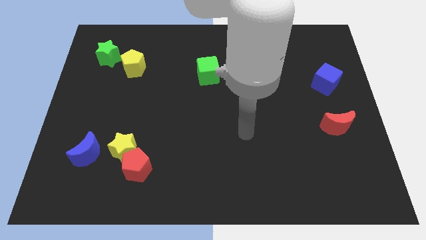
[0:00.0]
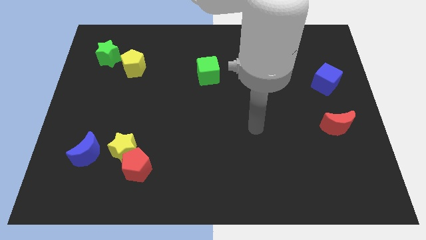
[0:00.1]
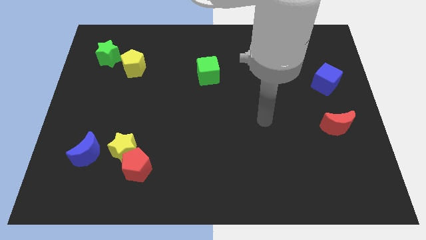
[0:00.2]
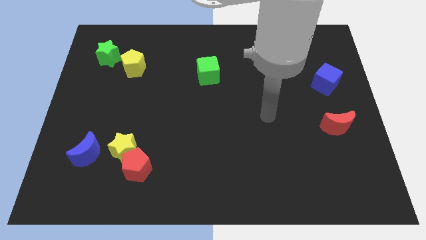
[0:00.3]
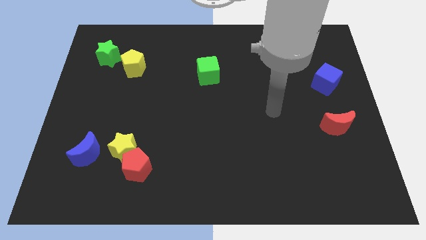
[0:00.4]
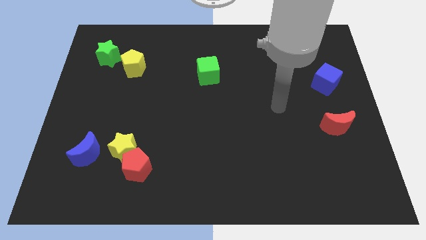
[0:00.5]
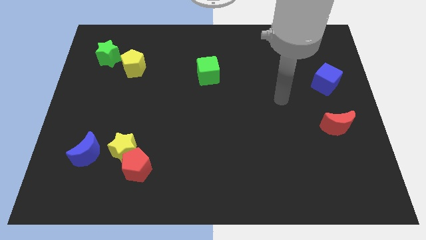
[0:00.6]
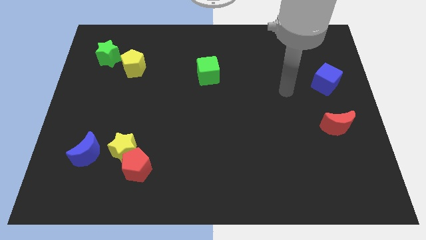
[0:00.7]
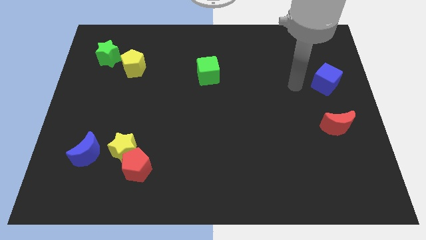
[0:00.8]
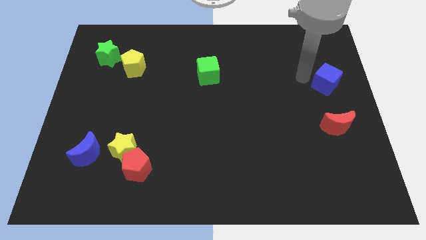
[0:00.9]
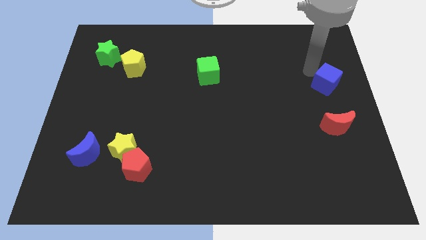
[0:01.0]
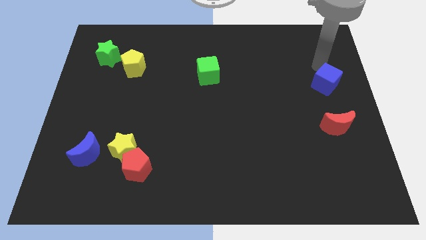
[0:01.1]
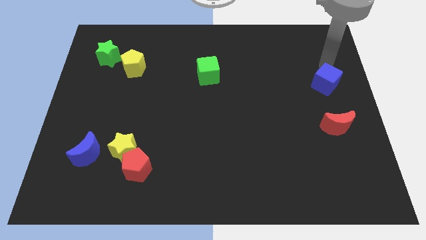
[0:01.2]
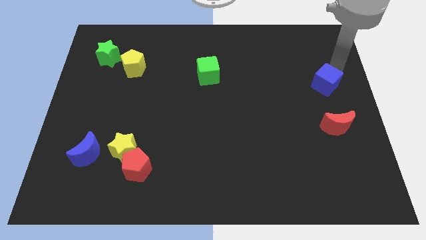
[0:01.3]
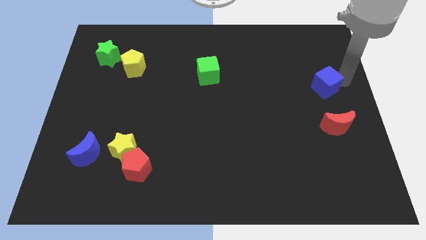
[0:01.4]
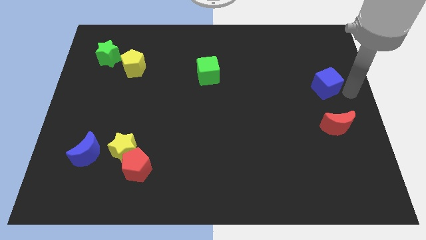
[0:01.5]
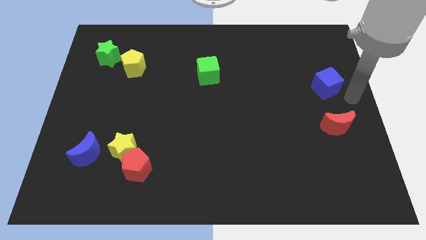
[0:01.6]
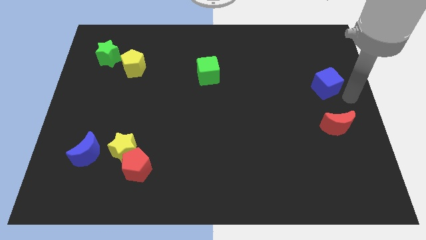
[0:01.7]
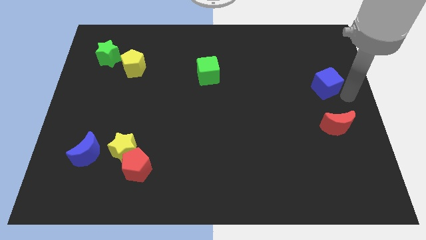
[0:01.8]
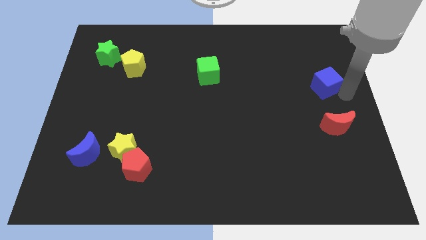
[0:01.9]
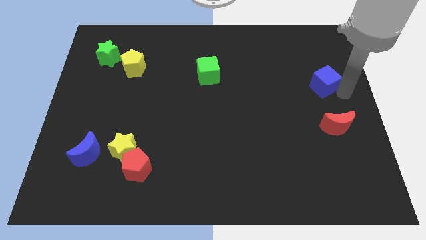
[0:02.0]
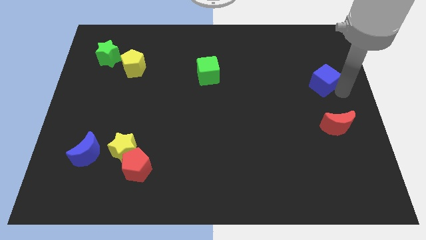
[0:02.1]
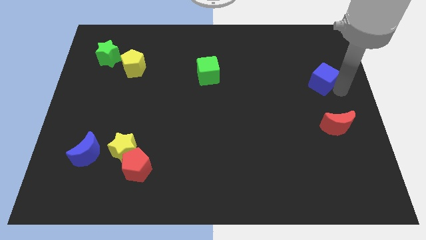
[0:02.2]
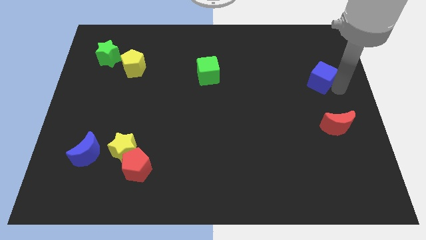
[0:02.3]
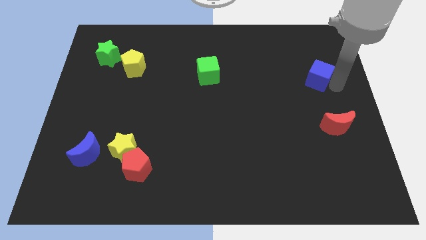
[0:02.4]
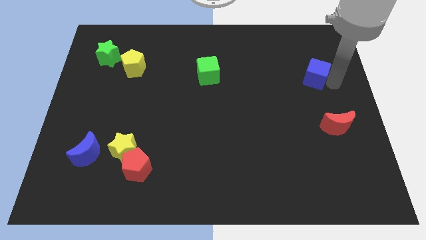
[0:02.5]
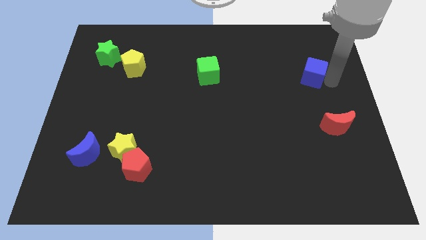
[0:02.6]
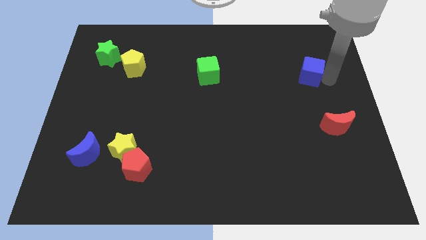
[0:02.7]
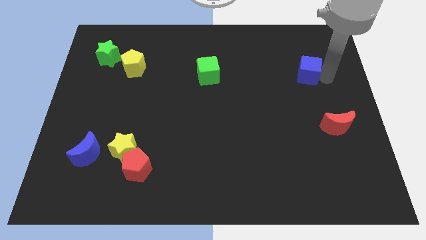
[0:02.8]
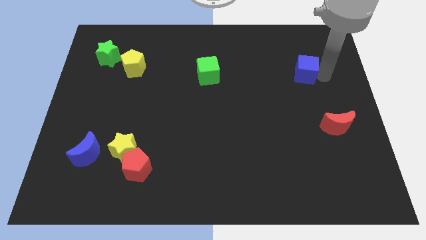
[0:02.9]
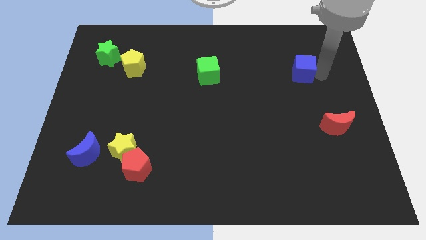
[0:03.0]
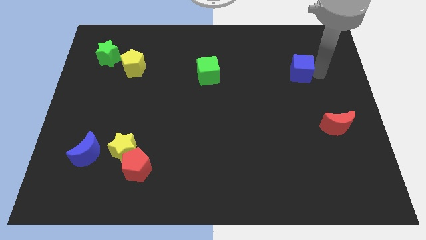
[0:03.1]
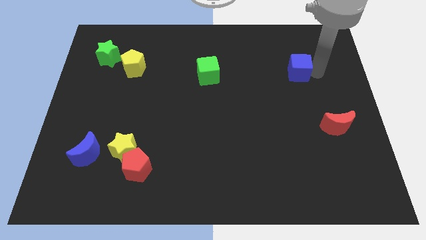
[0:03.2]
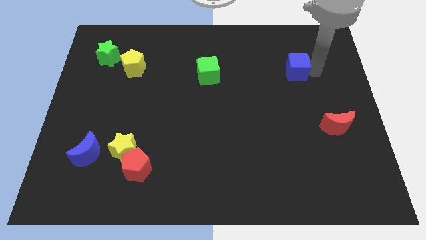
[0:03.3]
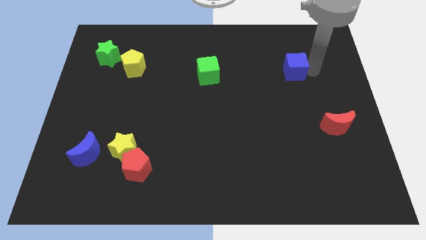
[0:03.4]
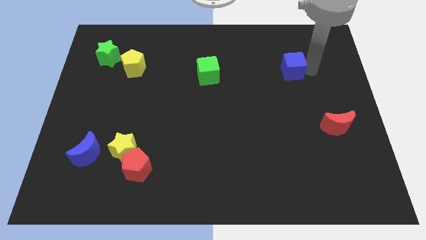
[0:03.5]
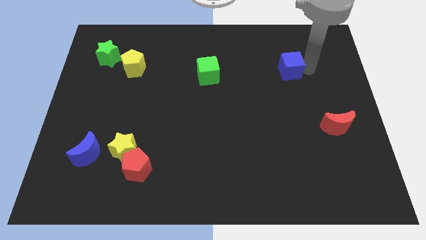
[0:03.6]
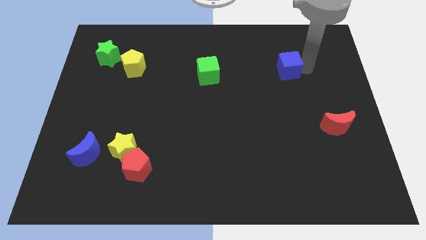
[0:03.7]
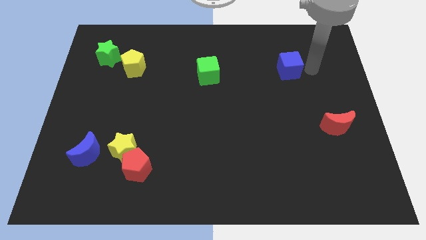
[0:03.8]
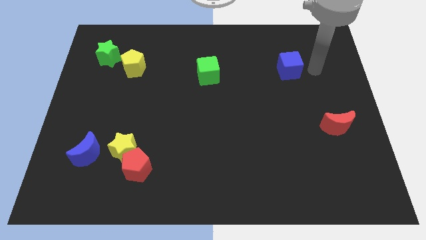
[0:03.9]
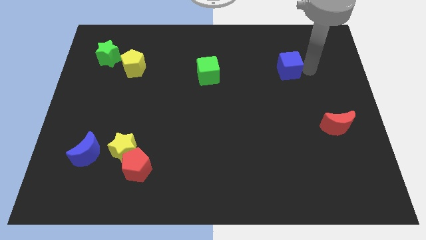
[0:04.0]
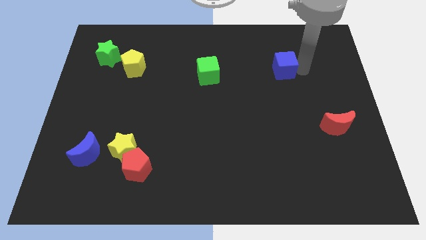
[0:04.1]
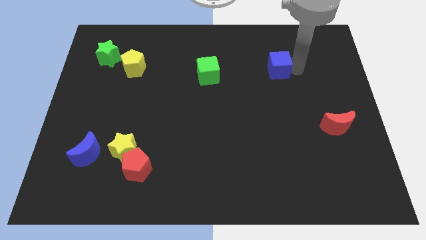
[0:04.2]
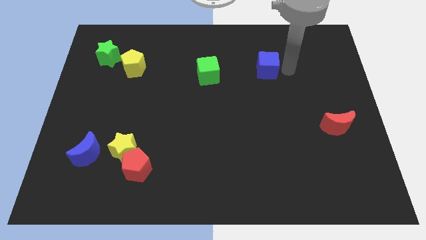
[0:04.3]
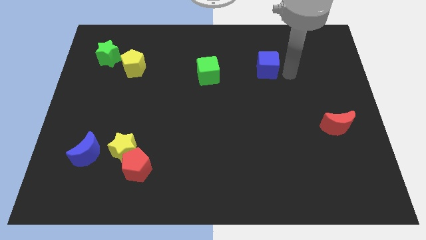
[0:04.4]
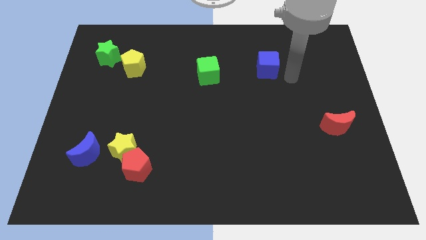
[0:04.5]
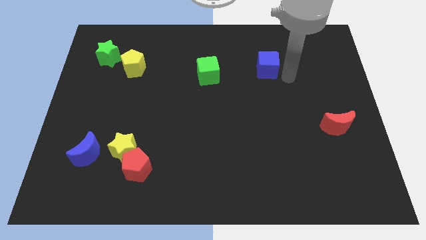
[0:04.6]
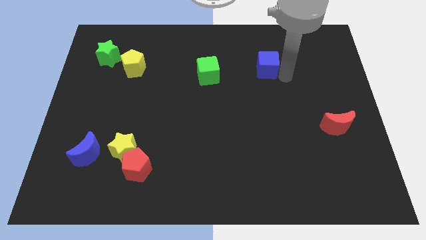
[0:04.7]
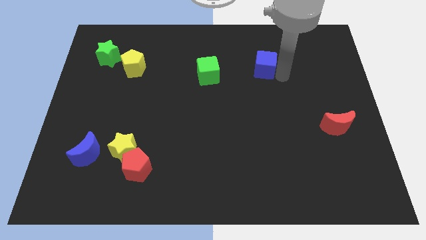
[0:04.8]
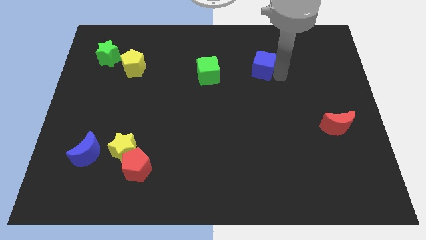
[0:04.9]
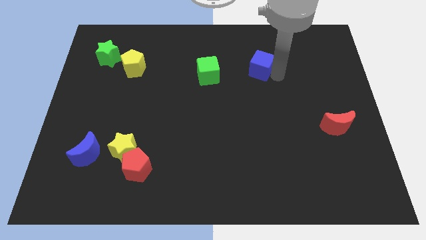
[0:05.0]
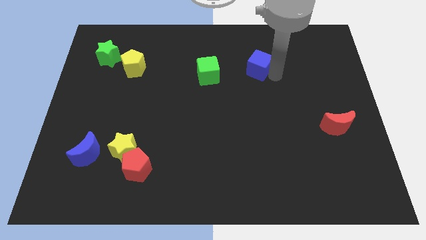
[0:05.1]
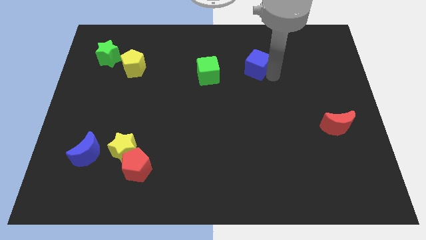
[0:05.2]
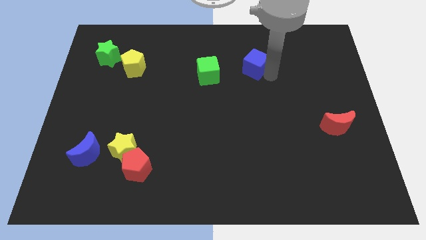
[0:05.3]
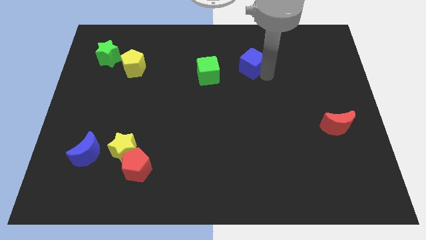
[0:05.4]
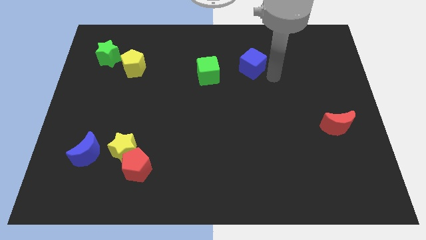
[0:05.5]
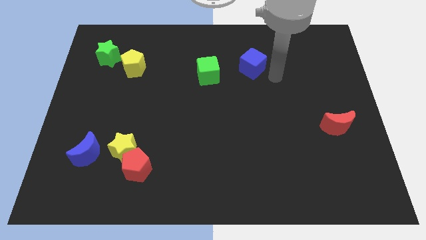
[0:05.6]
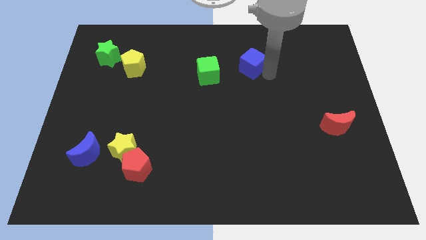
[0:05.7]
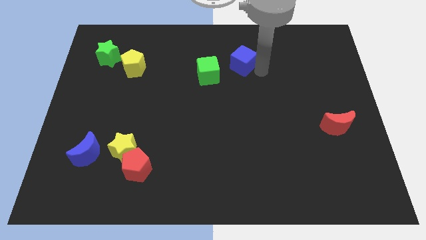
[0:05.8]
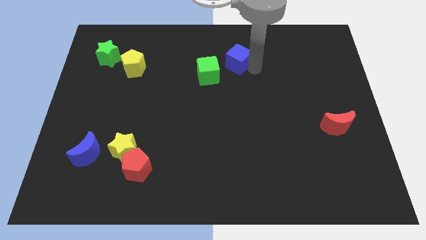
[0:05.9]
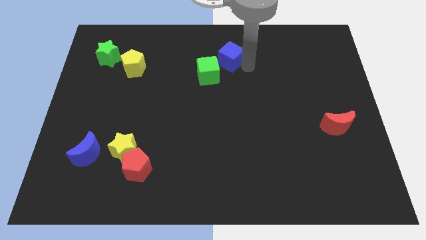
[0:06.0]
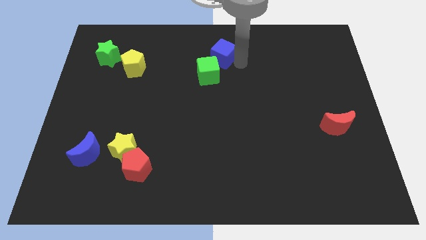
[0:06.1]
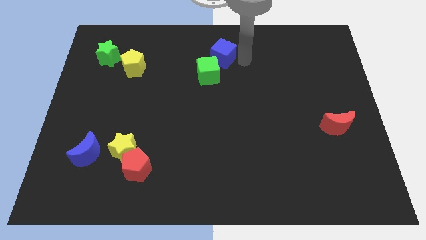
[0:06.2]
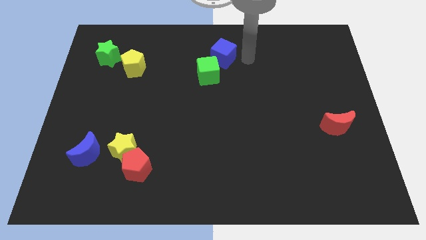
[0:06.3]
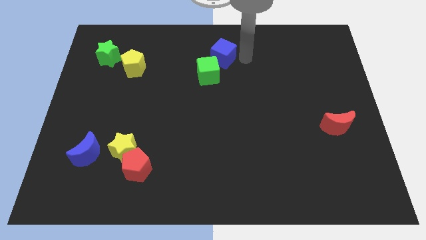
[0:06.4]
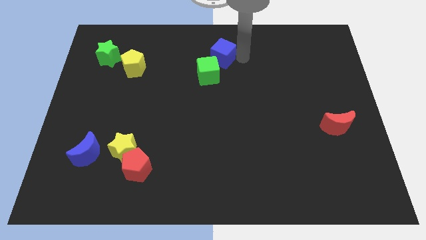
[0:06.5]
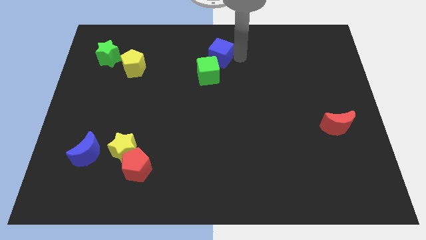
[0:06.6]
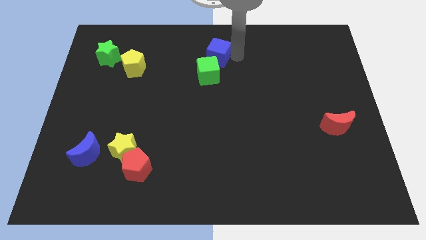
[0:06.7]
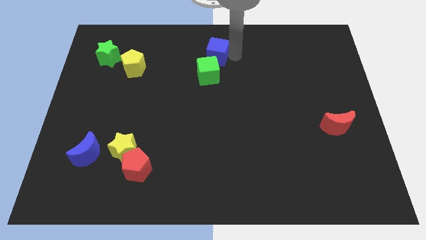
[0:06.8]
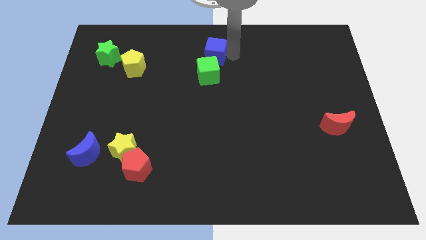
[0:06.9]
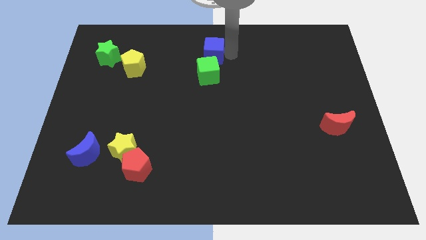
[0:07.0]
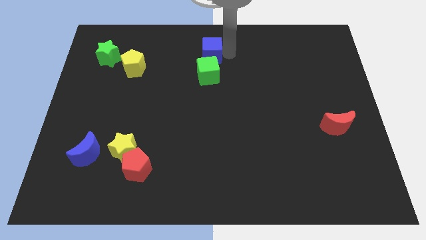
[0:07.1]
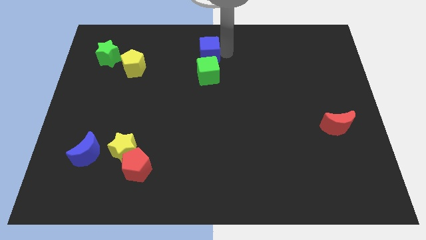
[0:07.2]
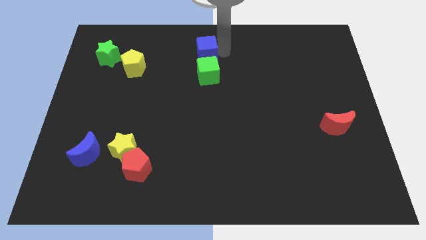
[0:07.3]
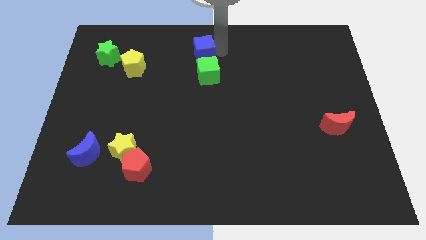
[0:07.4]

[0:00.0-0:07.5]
slide the blue cube to the top left of the green cube
